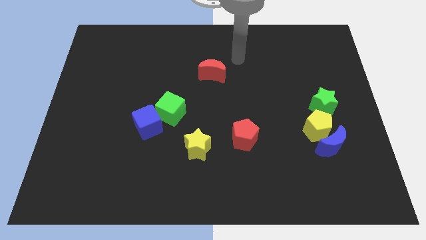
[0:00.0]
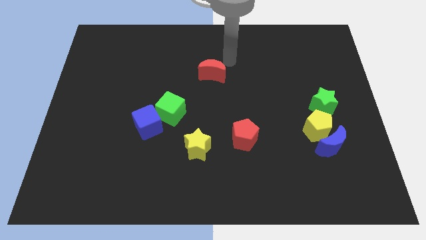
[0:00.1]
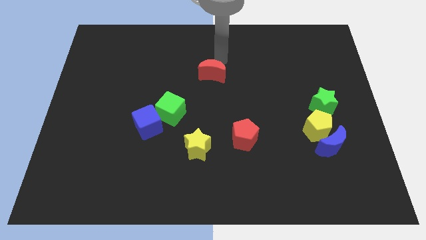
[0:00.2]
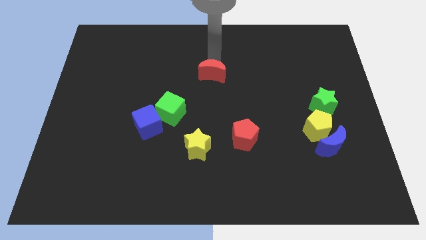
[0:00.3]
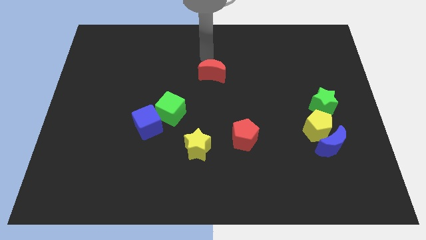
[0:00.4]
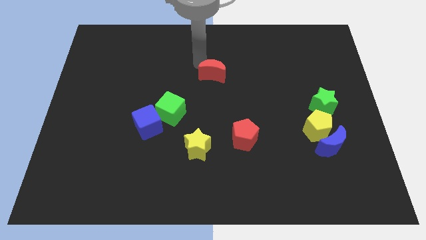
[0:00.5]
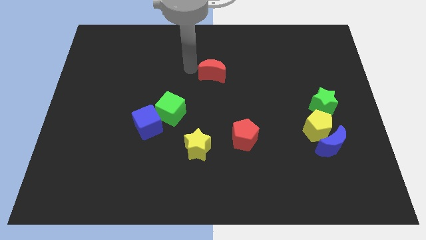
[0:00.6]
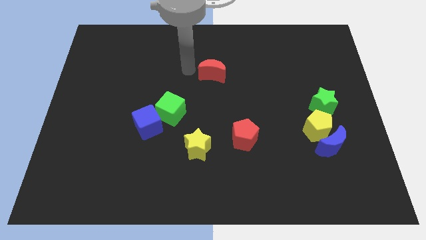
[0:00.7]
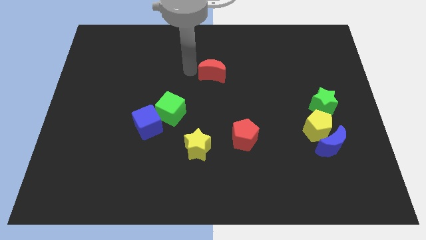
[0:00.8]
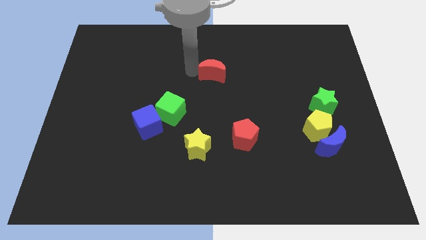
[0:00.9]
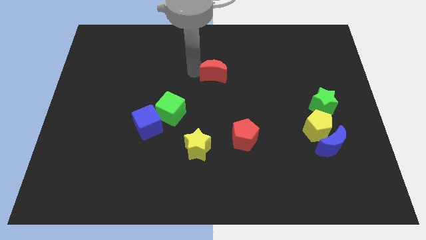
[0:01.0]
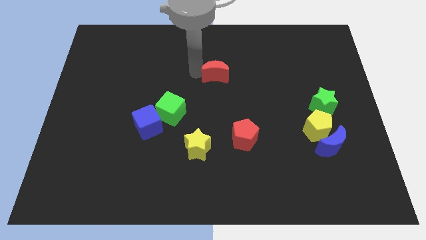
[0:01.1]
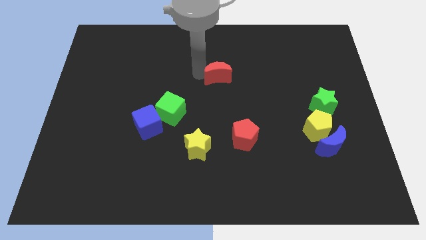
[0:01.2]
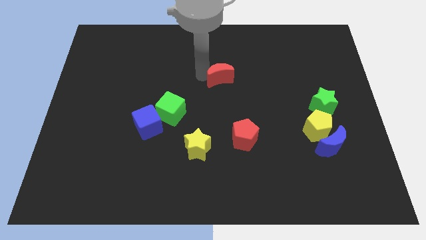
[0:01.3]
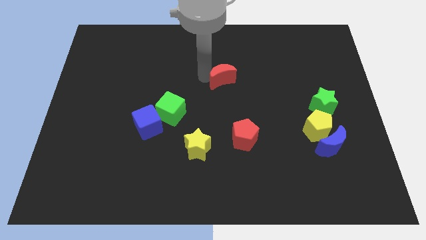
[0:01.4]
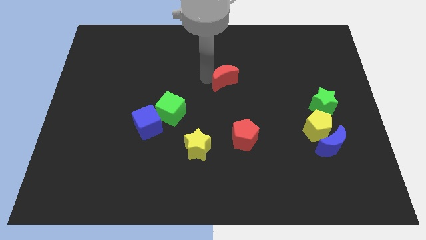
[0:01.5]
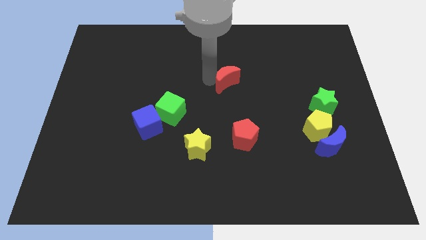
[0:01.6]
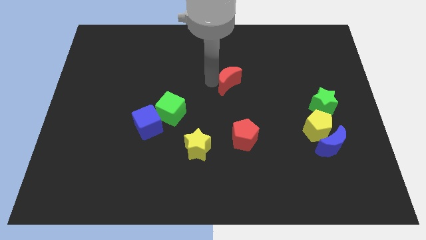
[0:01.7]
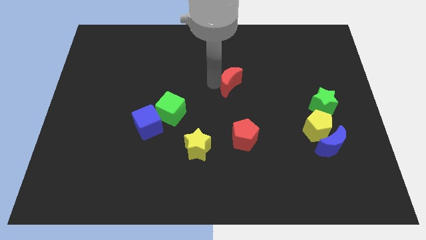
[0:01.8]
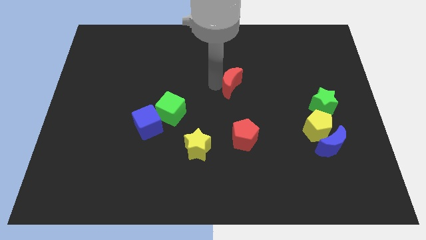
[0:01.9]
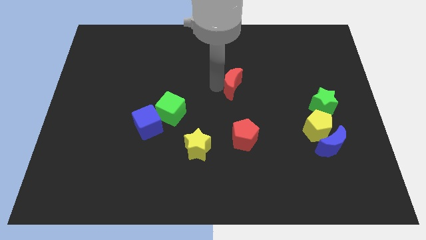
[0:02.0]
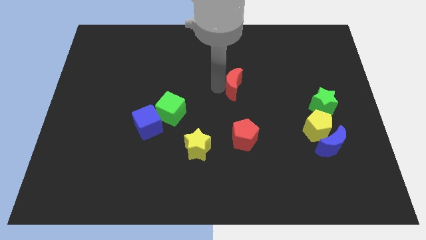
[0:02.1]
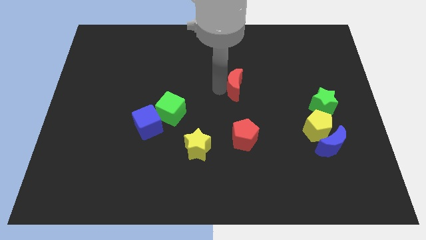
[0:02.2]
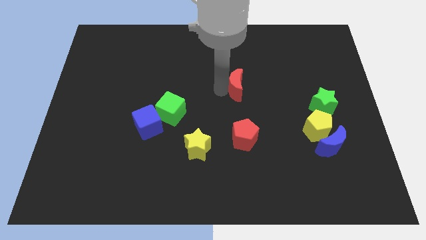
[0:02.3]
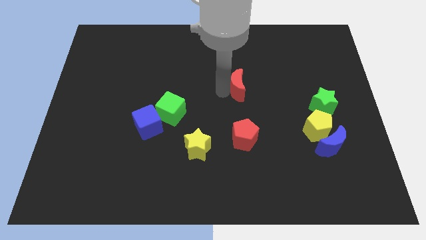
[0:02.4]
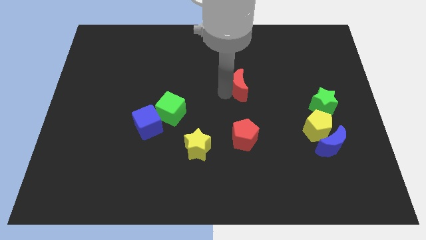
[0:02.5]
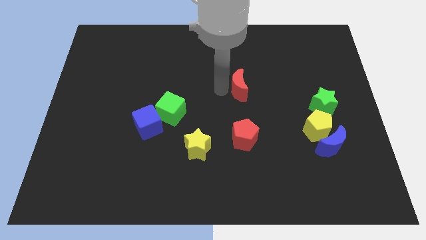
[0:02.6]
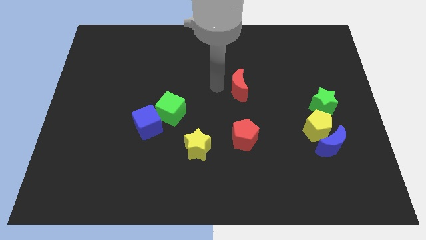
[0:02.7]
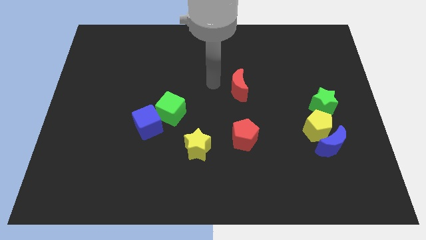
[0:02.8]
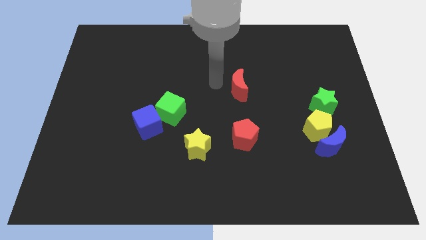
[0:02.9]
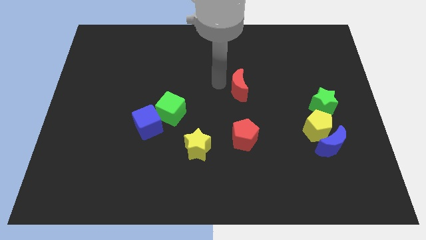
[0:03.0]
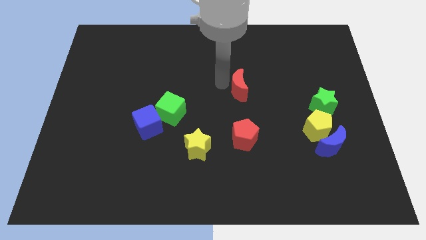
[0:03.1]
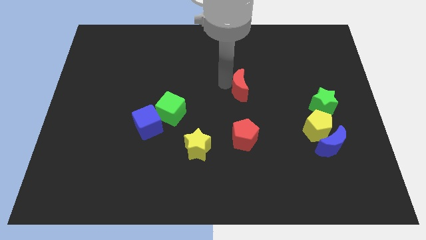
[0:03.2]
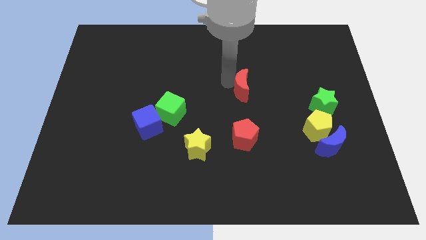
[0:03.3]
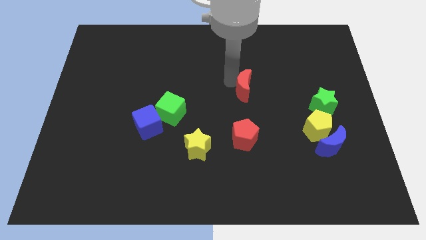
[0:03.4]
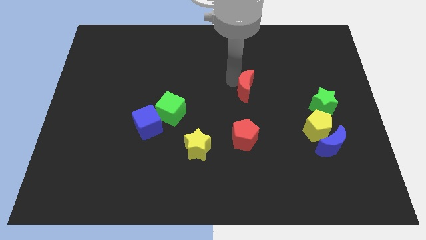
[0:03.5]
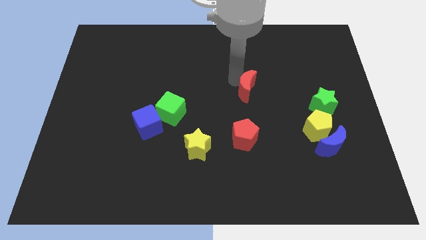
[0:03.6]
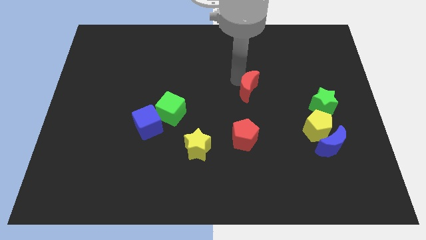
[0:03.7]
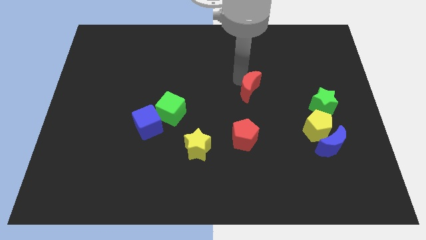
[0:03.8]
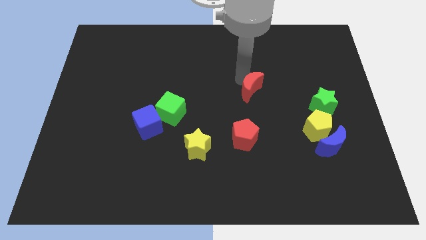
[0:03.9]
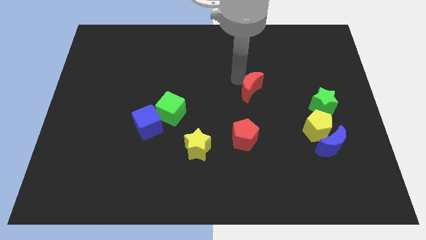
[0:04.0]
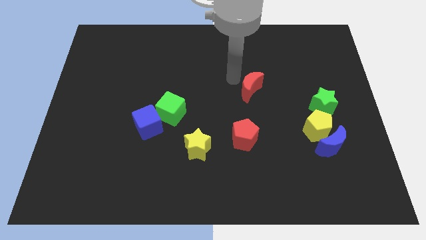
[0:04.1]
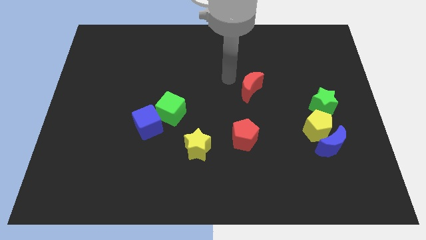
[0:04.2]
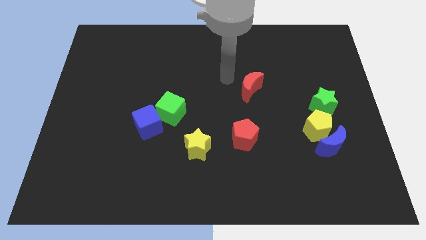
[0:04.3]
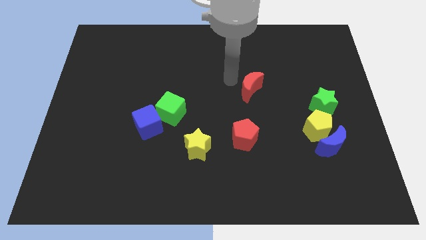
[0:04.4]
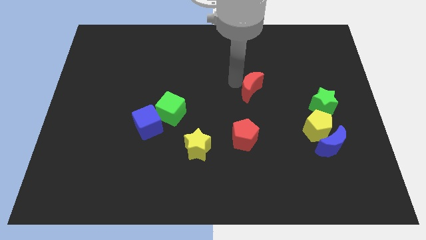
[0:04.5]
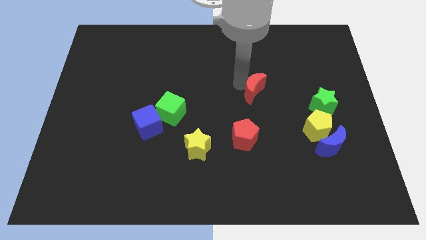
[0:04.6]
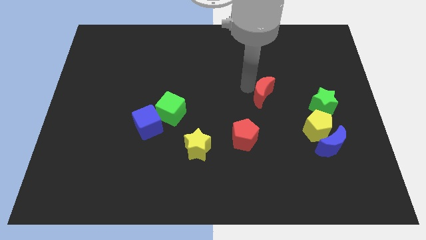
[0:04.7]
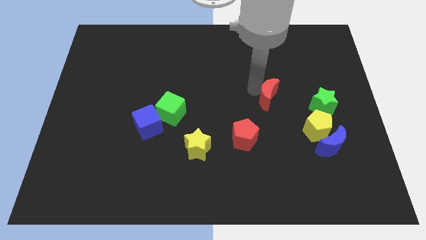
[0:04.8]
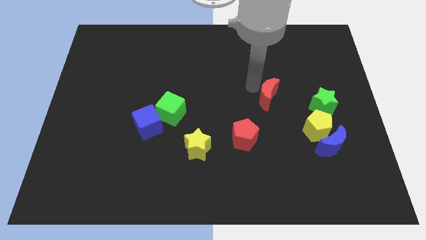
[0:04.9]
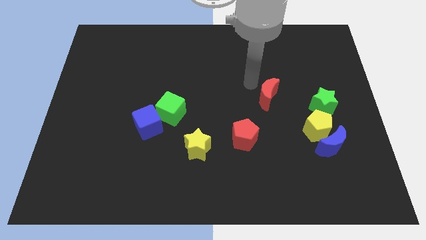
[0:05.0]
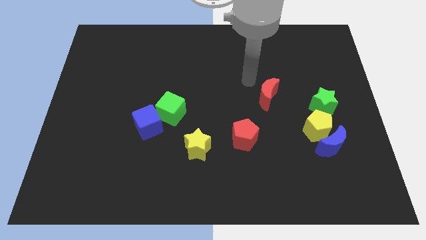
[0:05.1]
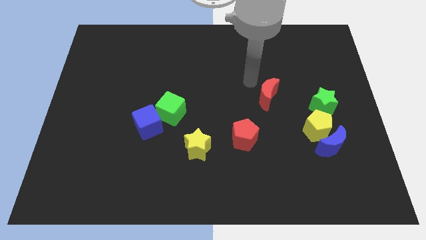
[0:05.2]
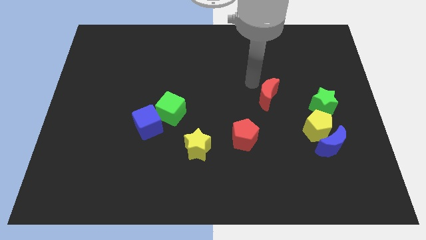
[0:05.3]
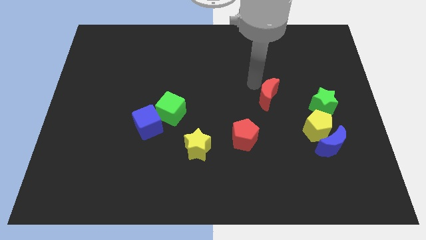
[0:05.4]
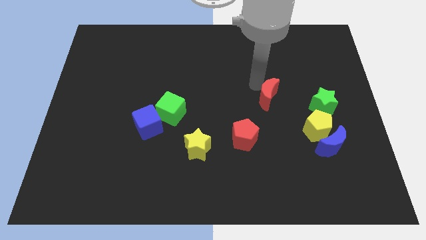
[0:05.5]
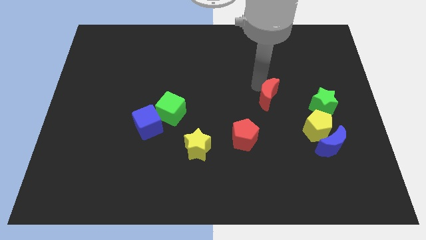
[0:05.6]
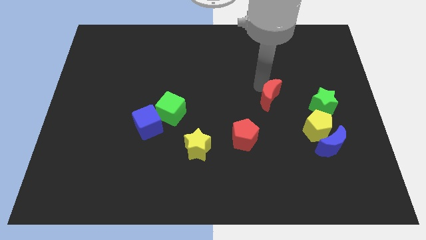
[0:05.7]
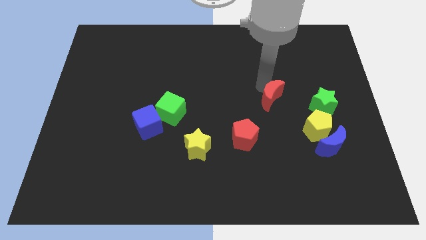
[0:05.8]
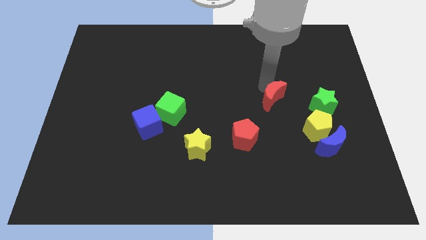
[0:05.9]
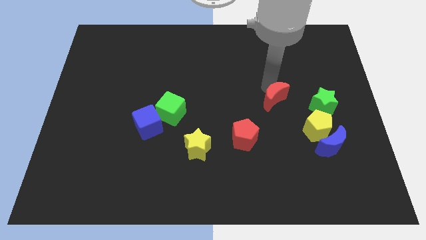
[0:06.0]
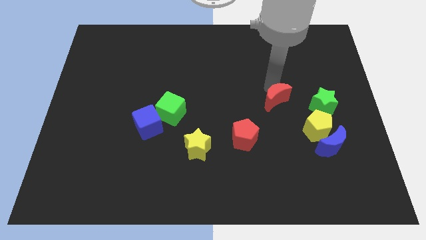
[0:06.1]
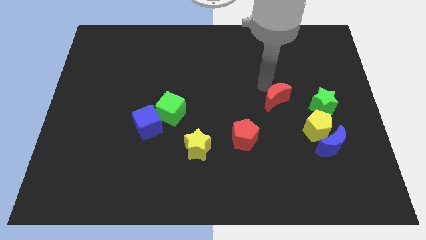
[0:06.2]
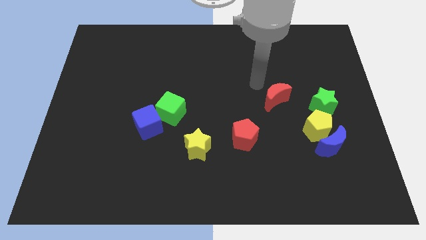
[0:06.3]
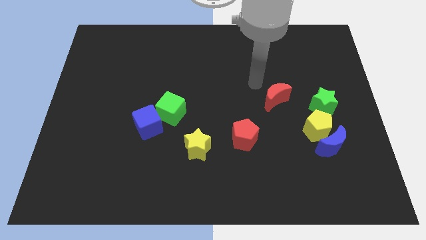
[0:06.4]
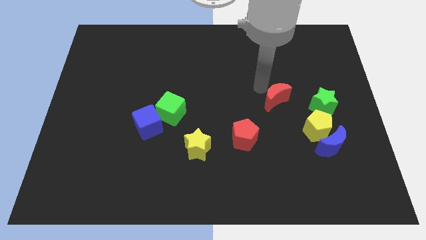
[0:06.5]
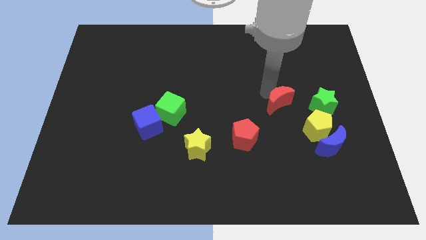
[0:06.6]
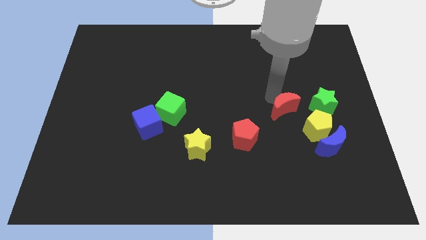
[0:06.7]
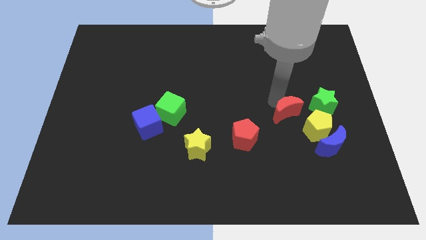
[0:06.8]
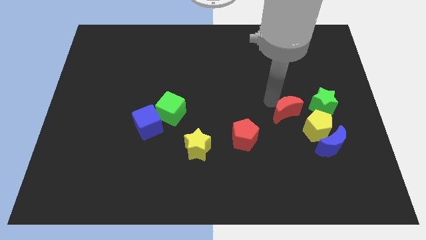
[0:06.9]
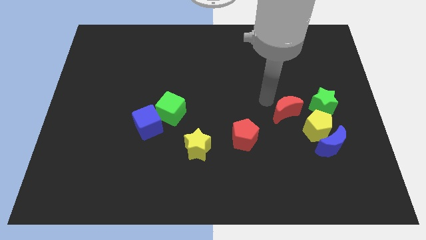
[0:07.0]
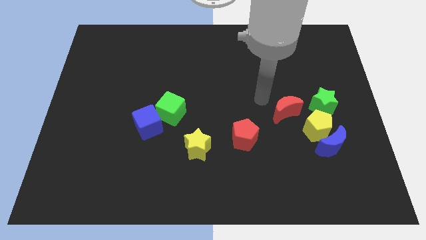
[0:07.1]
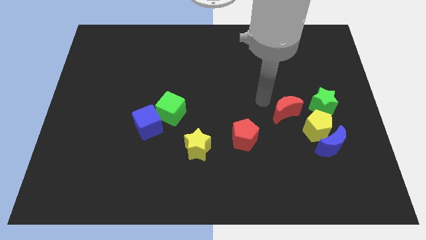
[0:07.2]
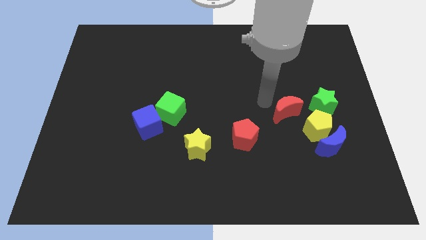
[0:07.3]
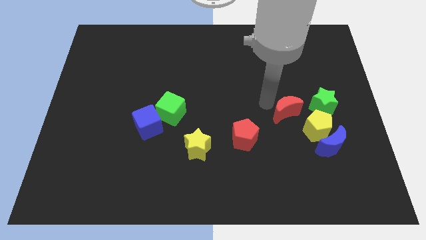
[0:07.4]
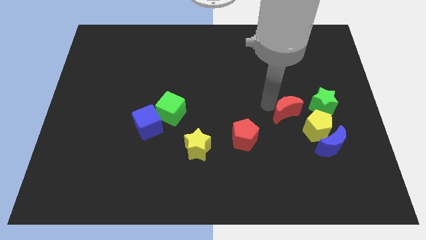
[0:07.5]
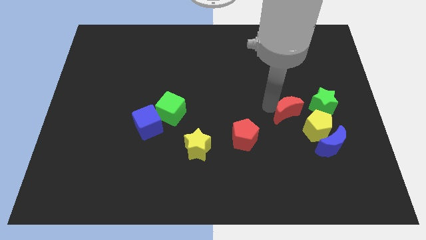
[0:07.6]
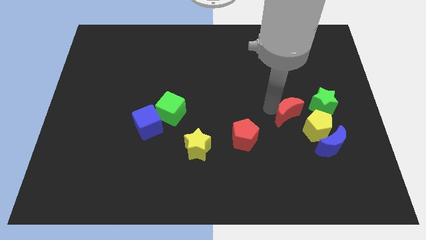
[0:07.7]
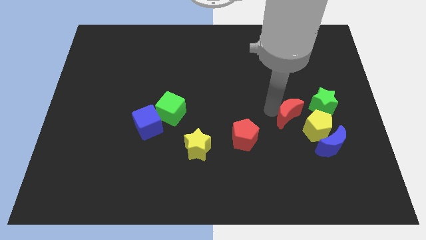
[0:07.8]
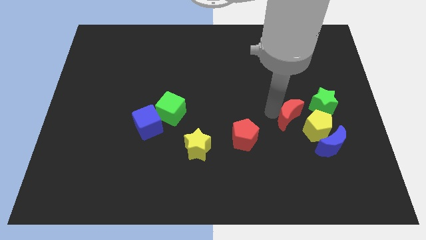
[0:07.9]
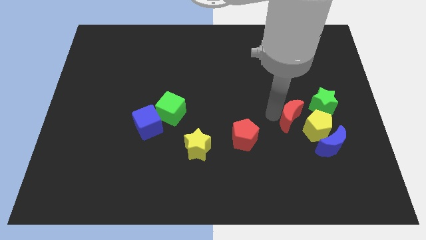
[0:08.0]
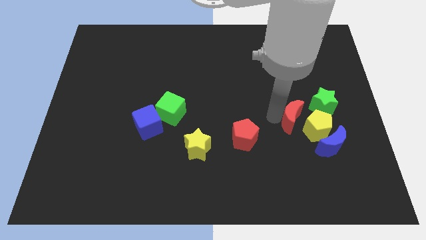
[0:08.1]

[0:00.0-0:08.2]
push the red moon close to the yellow pentagon
